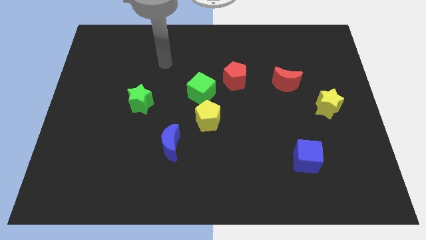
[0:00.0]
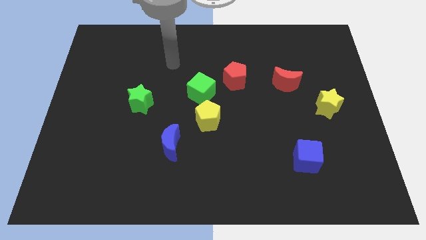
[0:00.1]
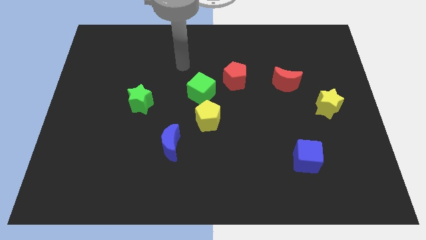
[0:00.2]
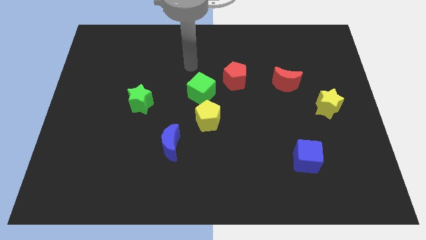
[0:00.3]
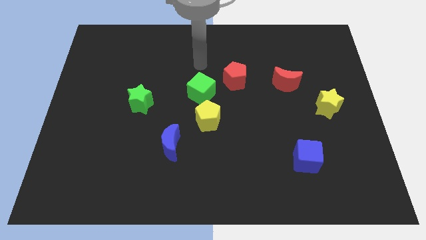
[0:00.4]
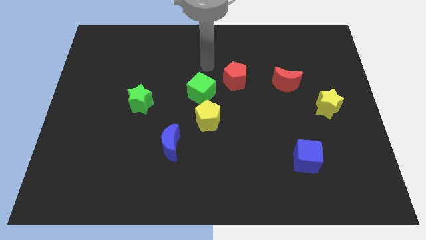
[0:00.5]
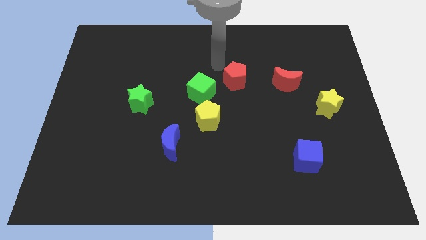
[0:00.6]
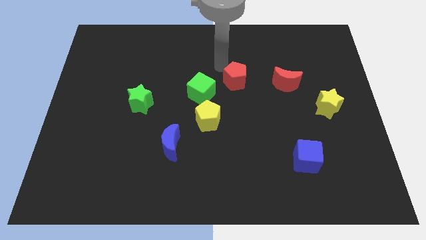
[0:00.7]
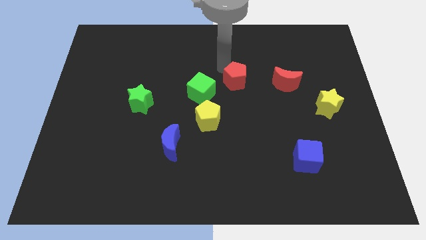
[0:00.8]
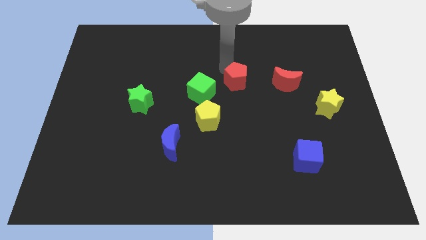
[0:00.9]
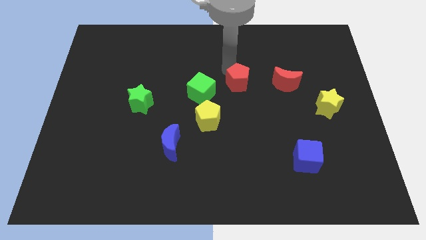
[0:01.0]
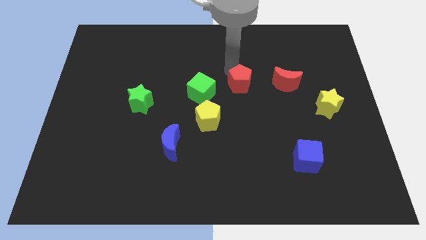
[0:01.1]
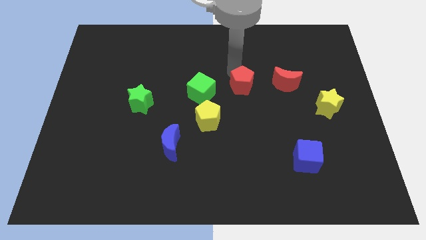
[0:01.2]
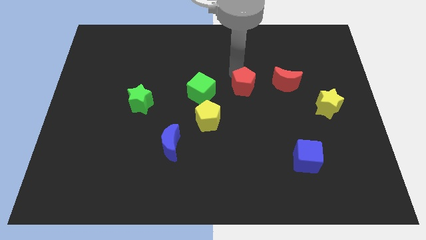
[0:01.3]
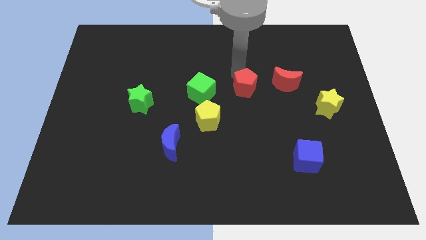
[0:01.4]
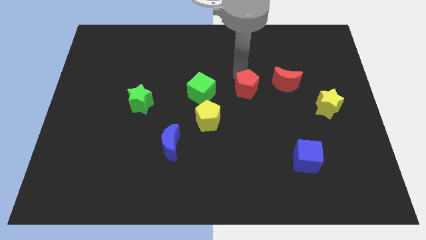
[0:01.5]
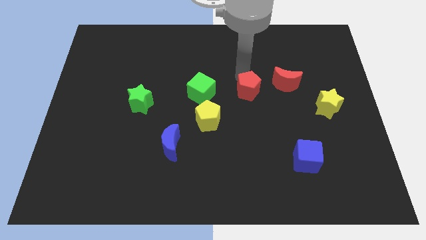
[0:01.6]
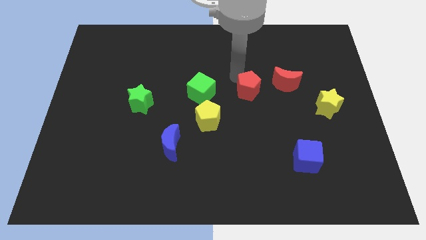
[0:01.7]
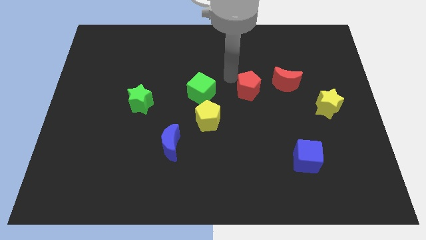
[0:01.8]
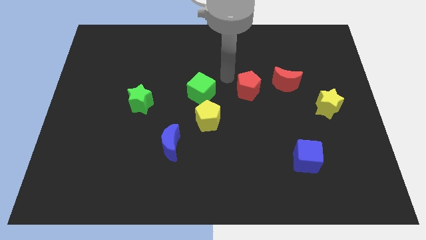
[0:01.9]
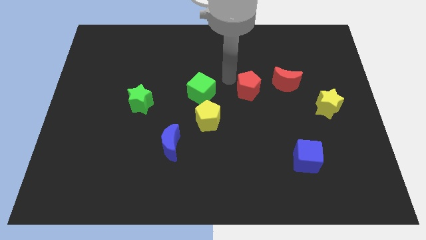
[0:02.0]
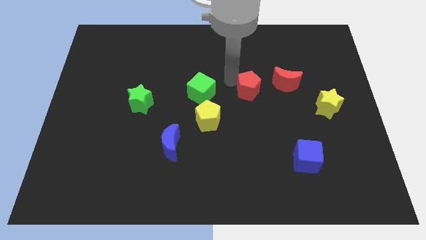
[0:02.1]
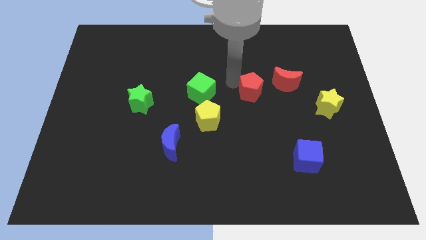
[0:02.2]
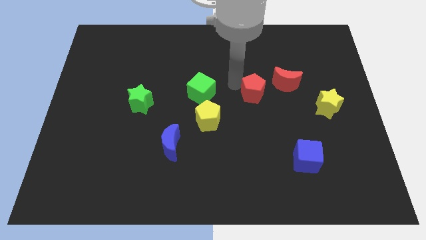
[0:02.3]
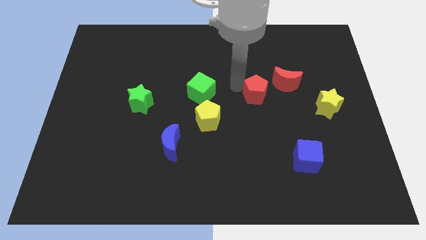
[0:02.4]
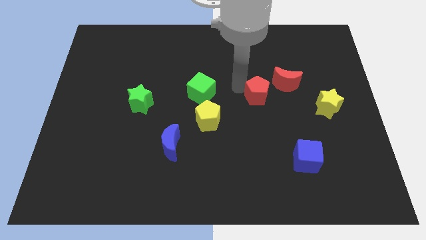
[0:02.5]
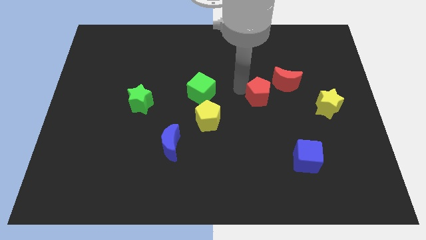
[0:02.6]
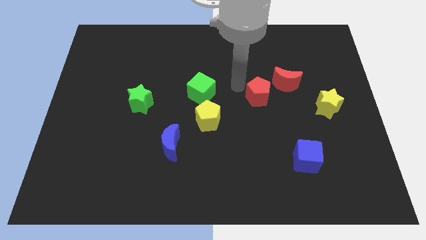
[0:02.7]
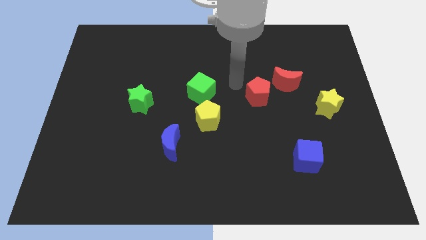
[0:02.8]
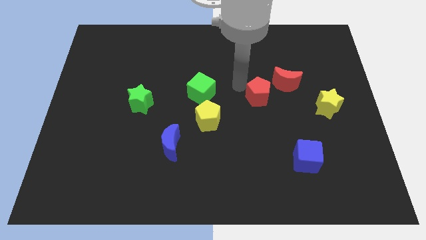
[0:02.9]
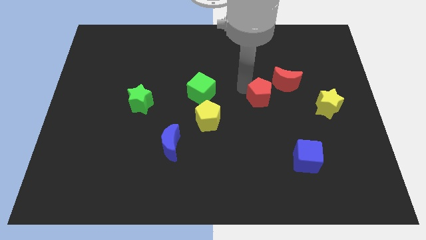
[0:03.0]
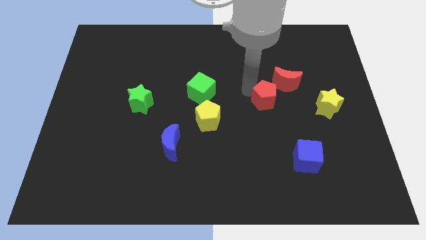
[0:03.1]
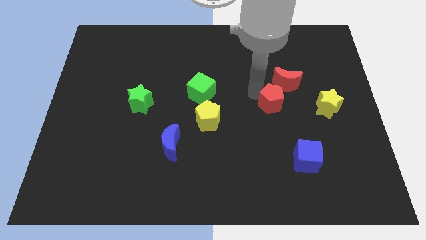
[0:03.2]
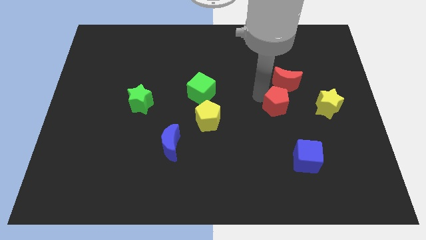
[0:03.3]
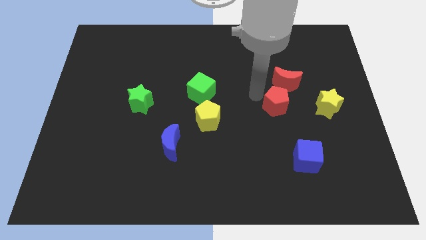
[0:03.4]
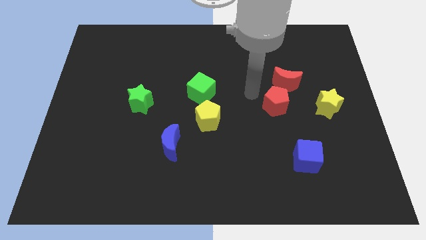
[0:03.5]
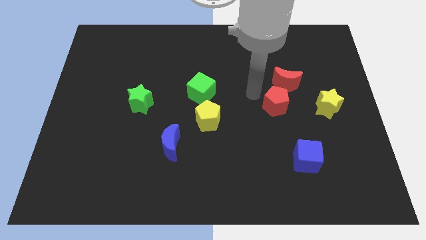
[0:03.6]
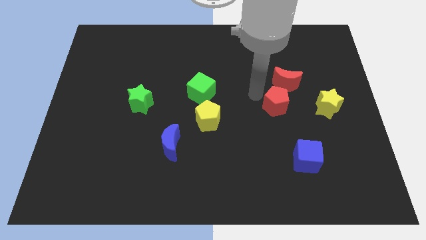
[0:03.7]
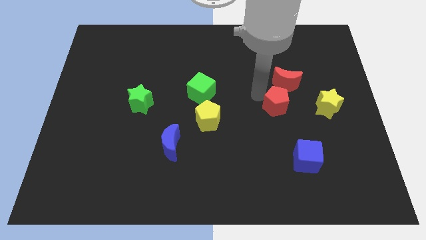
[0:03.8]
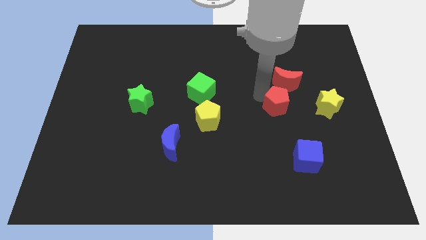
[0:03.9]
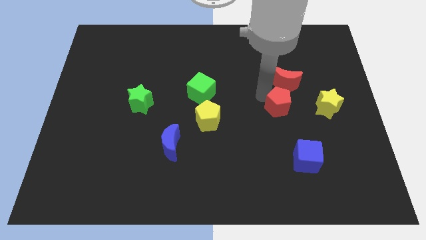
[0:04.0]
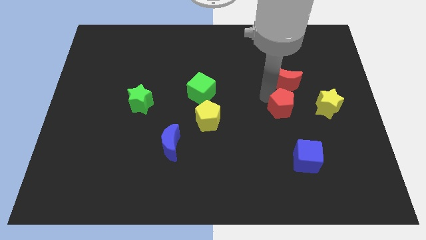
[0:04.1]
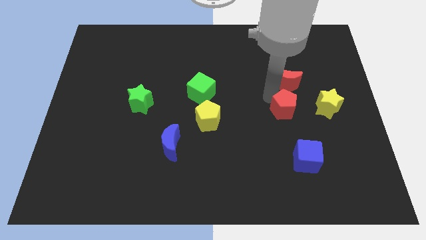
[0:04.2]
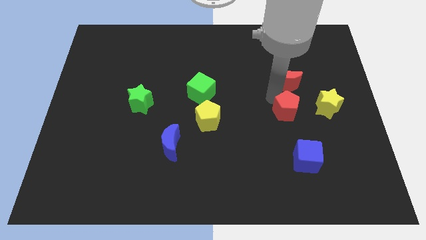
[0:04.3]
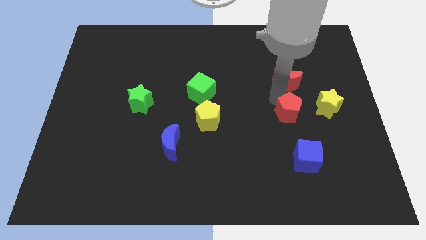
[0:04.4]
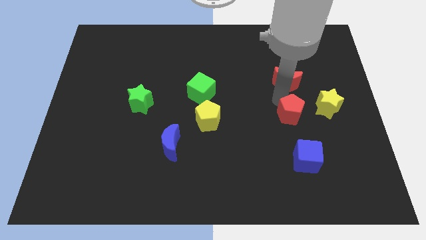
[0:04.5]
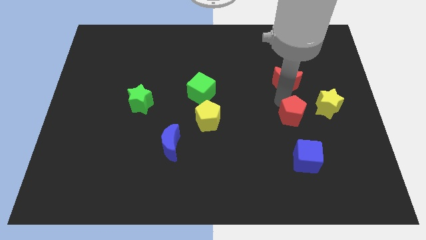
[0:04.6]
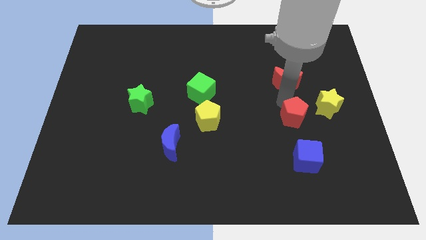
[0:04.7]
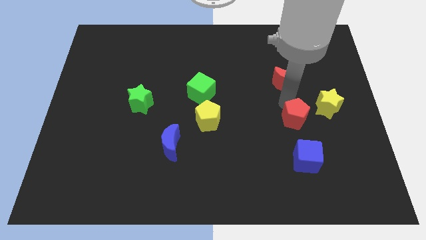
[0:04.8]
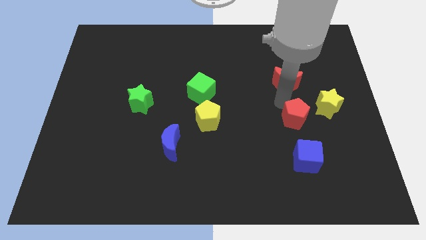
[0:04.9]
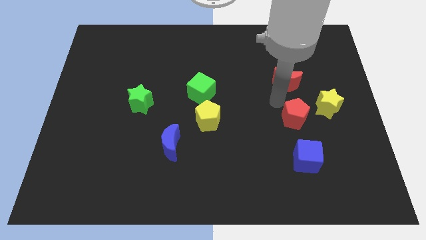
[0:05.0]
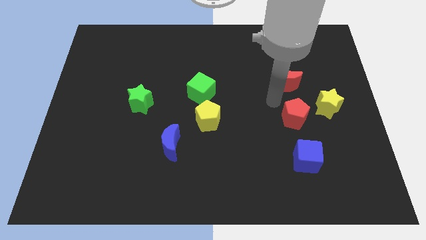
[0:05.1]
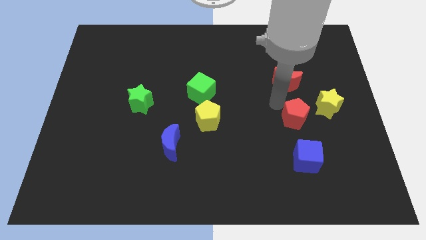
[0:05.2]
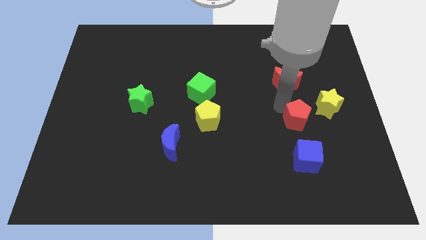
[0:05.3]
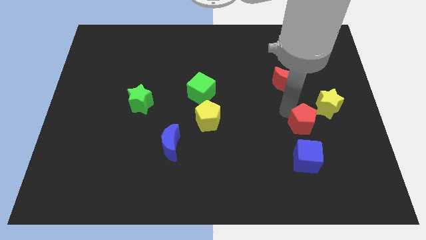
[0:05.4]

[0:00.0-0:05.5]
slide the red pentagon downwards and to the right

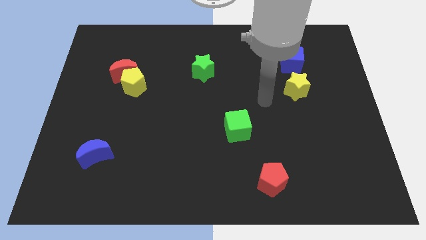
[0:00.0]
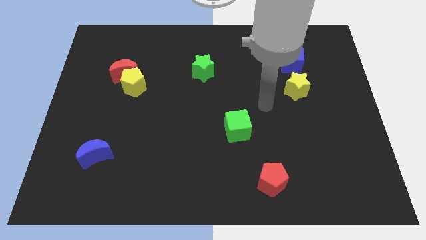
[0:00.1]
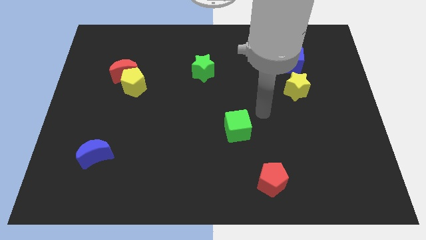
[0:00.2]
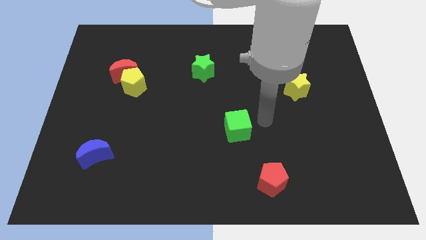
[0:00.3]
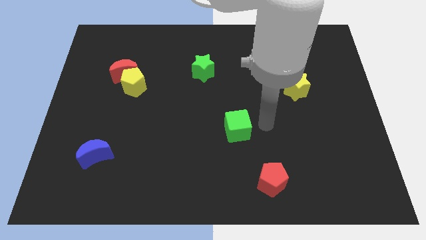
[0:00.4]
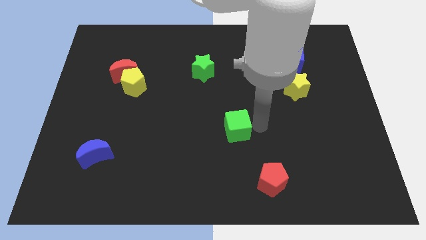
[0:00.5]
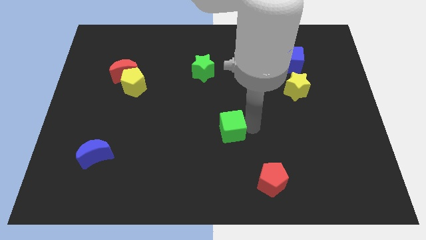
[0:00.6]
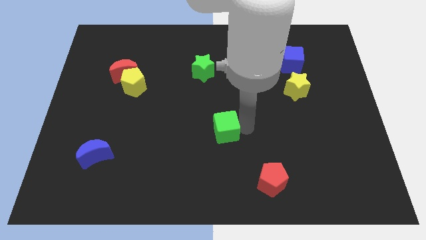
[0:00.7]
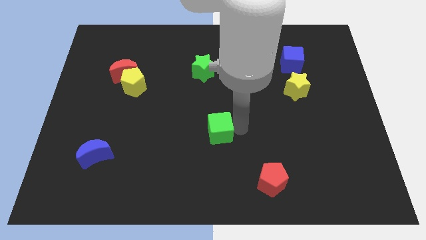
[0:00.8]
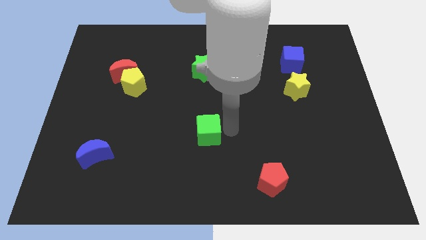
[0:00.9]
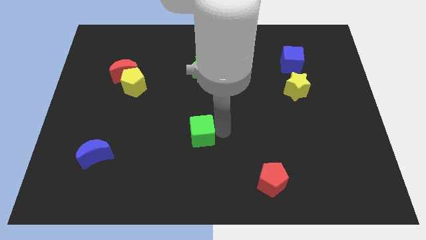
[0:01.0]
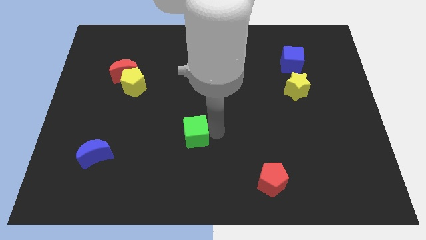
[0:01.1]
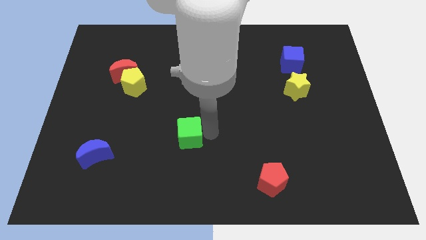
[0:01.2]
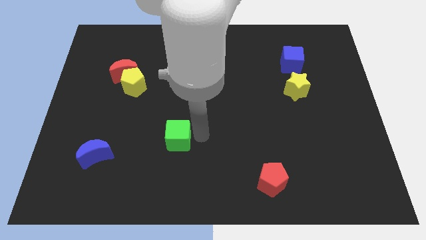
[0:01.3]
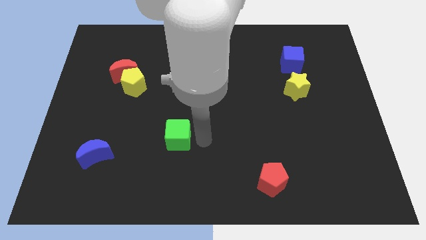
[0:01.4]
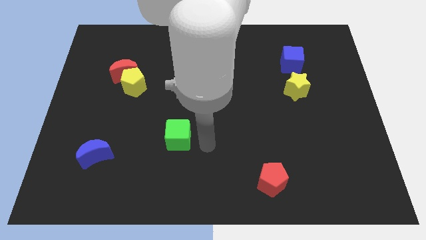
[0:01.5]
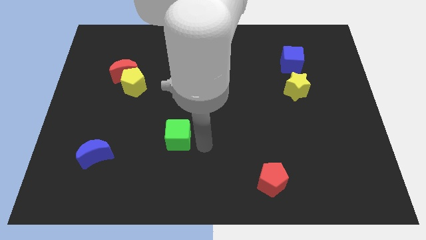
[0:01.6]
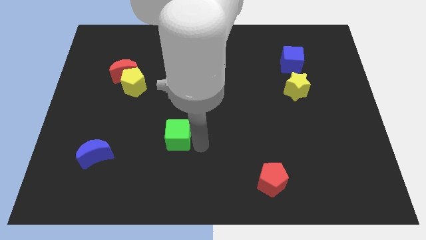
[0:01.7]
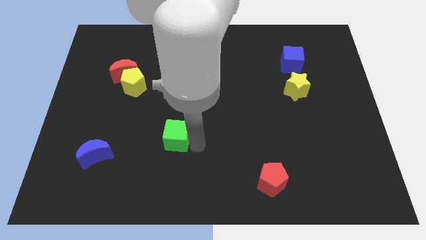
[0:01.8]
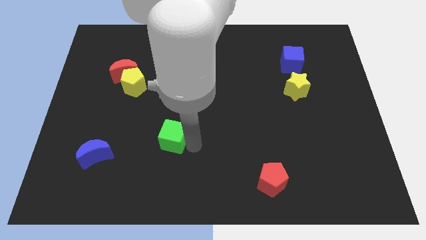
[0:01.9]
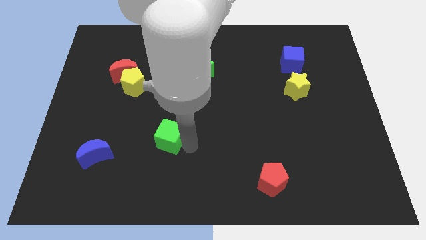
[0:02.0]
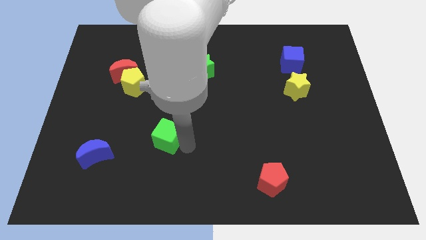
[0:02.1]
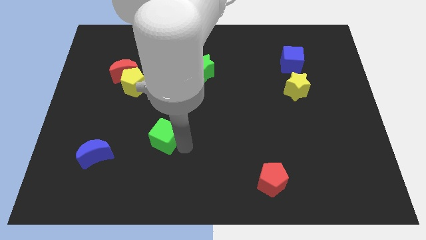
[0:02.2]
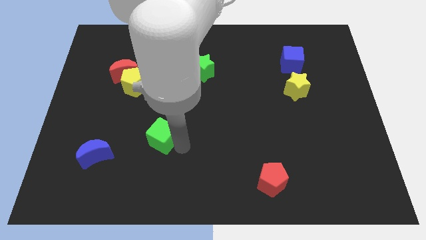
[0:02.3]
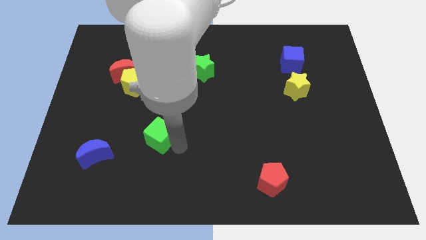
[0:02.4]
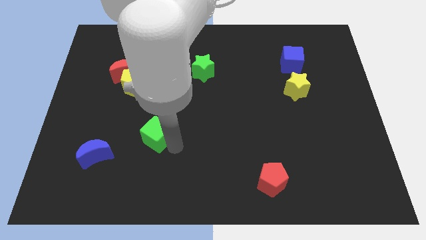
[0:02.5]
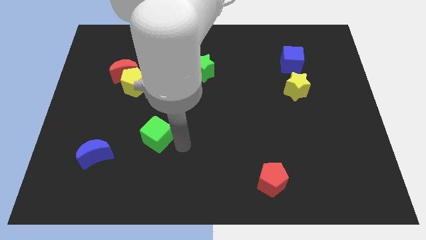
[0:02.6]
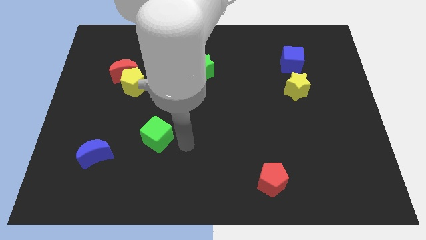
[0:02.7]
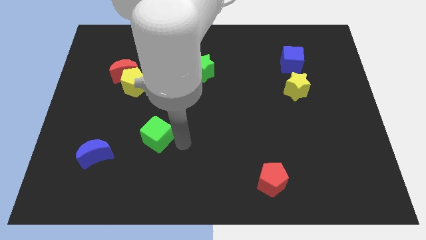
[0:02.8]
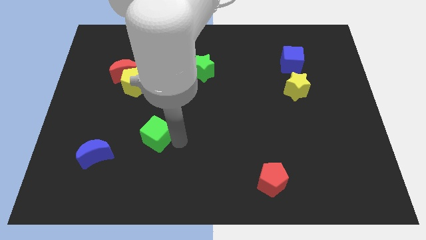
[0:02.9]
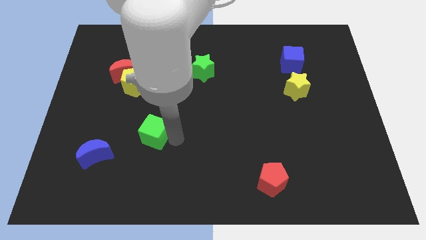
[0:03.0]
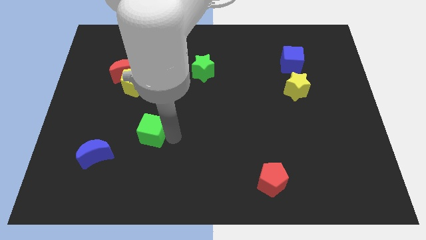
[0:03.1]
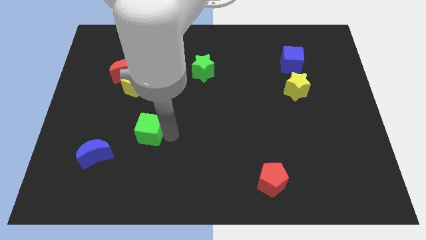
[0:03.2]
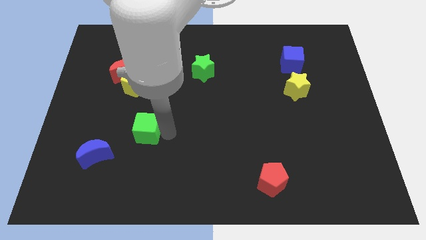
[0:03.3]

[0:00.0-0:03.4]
move the green cube to the left
